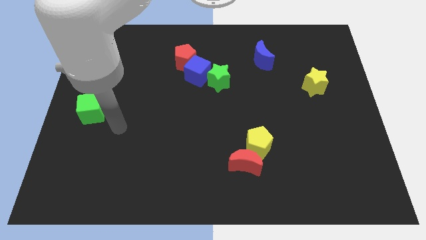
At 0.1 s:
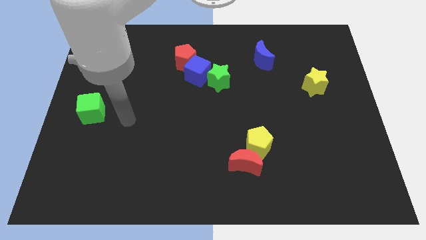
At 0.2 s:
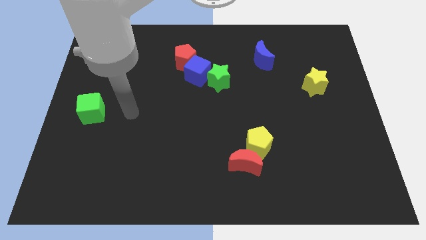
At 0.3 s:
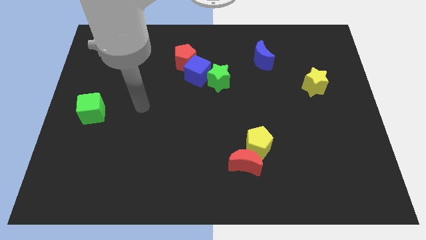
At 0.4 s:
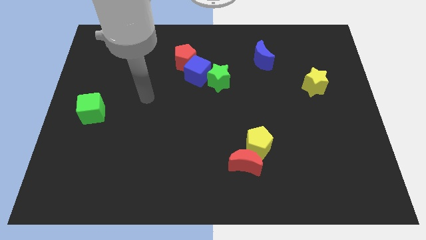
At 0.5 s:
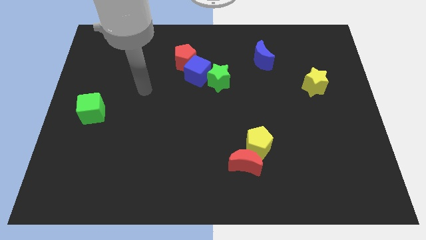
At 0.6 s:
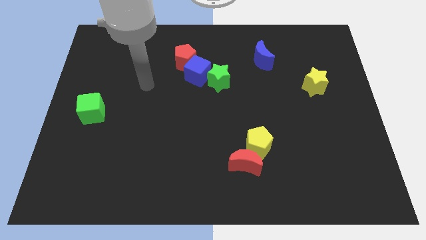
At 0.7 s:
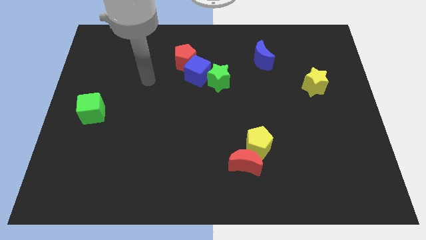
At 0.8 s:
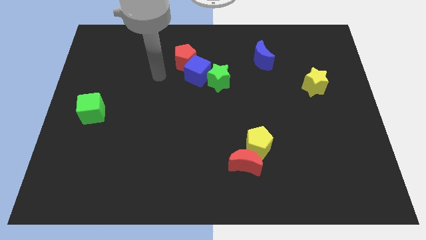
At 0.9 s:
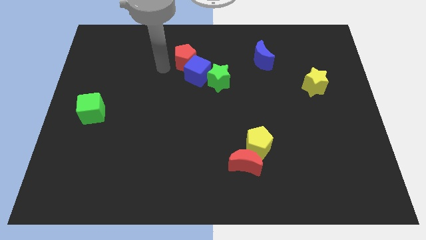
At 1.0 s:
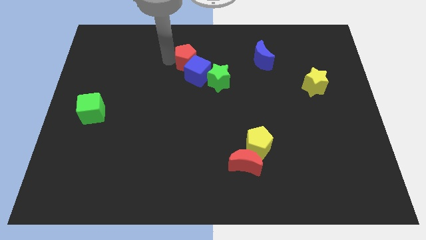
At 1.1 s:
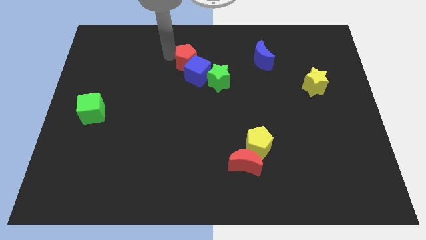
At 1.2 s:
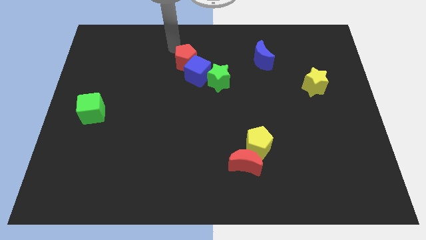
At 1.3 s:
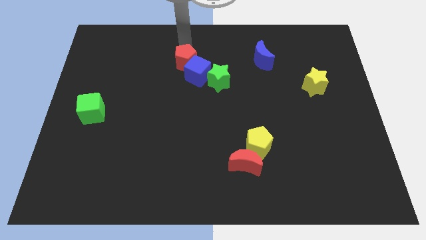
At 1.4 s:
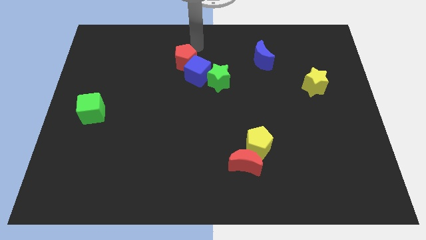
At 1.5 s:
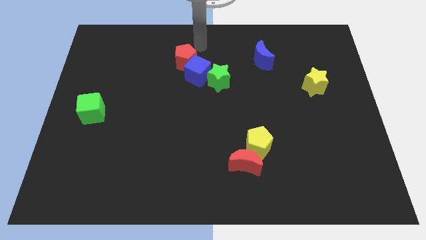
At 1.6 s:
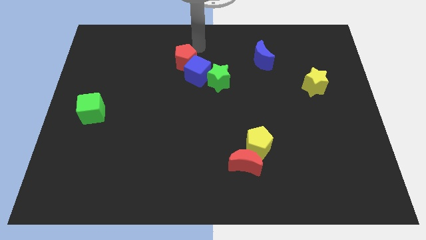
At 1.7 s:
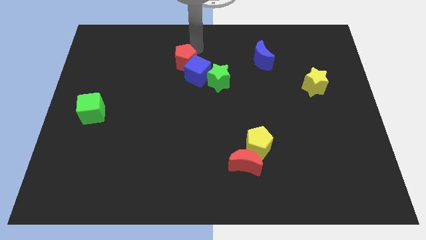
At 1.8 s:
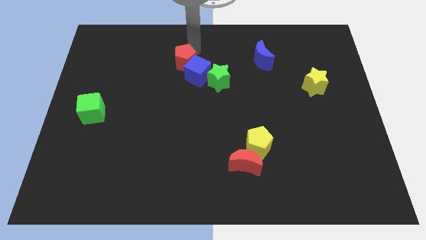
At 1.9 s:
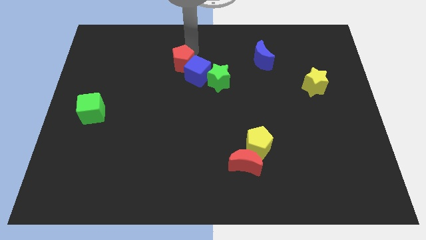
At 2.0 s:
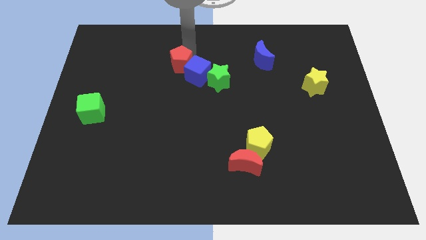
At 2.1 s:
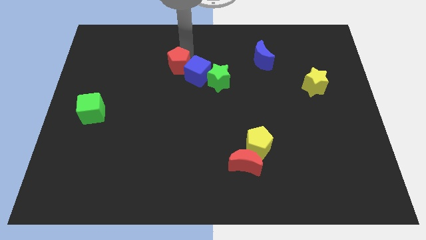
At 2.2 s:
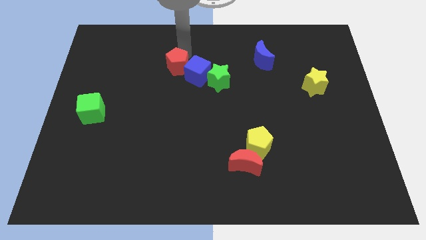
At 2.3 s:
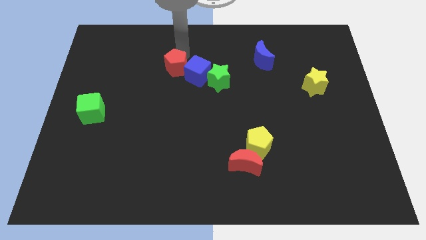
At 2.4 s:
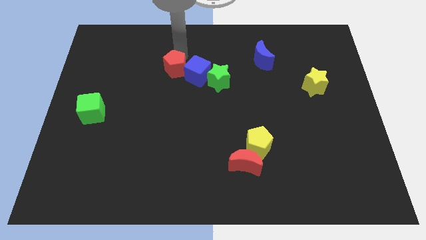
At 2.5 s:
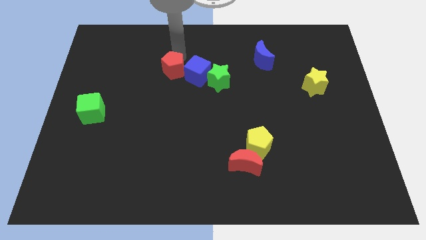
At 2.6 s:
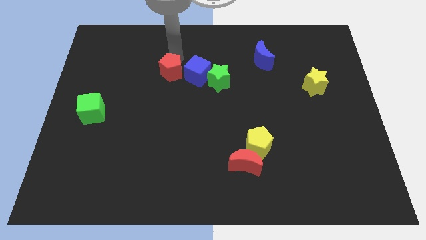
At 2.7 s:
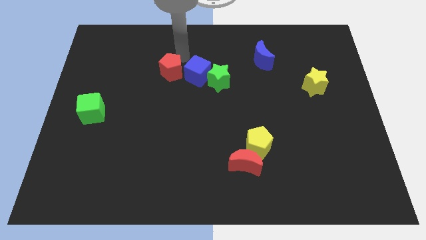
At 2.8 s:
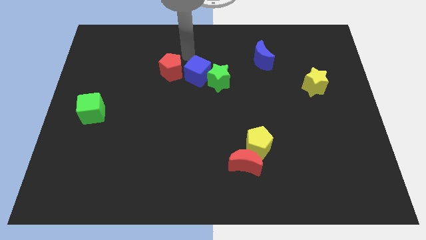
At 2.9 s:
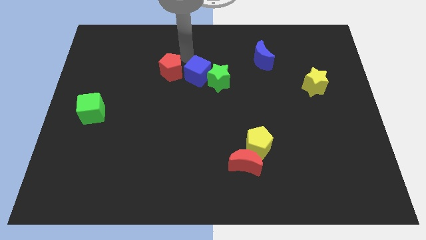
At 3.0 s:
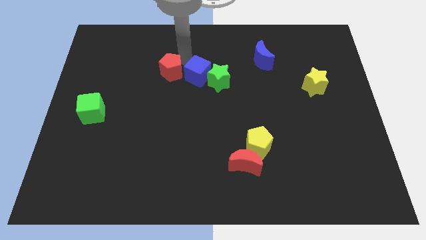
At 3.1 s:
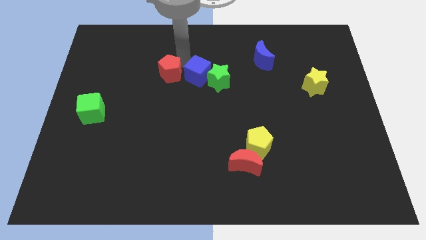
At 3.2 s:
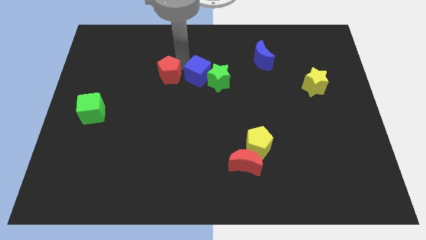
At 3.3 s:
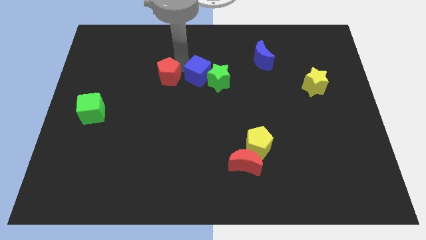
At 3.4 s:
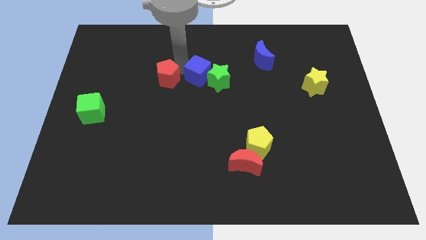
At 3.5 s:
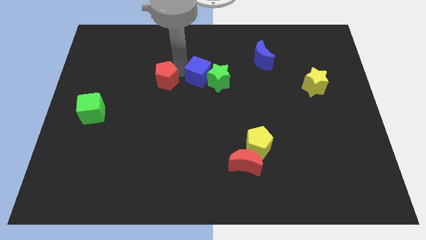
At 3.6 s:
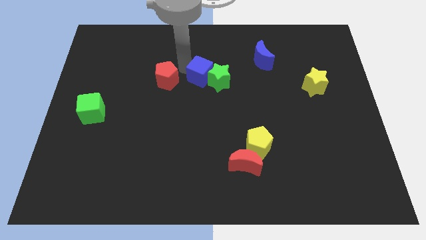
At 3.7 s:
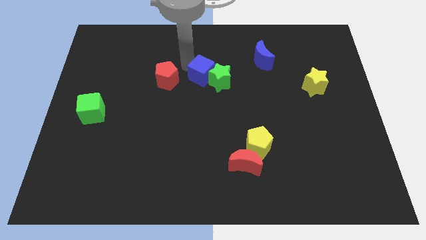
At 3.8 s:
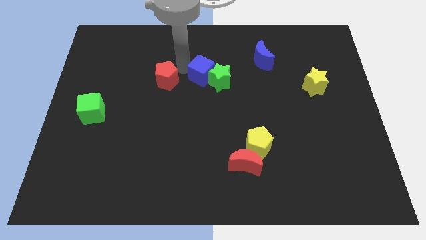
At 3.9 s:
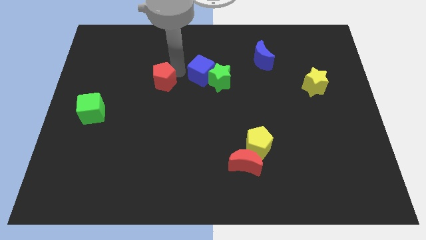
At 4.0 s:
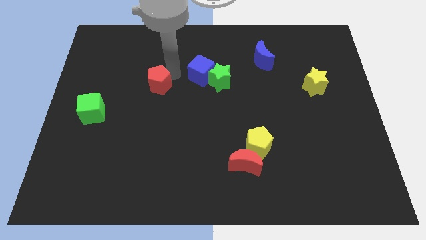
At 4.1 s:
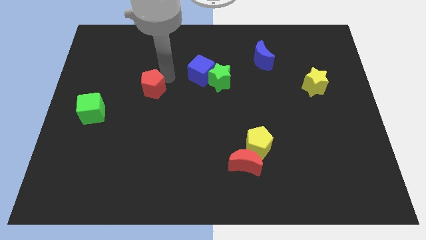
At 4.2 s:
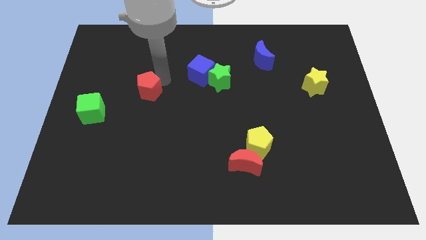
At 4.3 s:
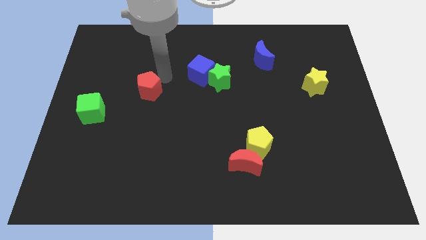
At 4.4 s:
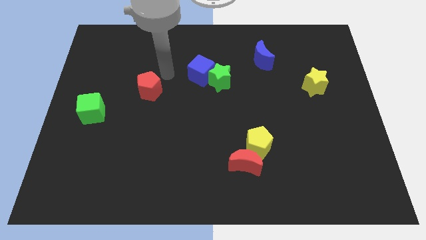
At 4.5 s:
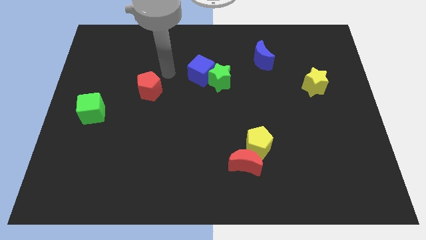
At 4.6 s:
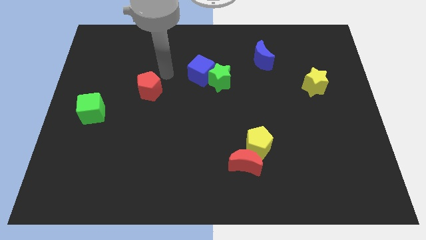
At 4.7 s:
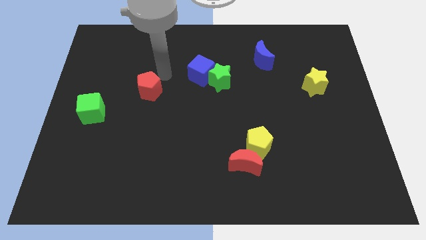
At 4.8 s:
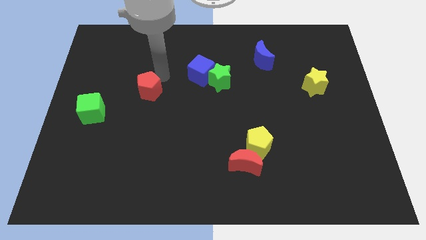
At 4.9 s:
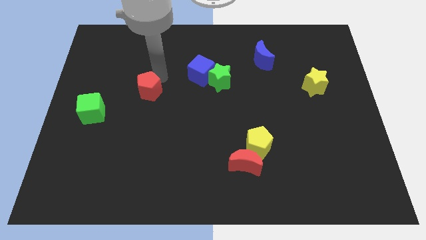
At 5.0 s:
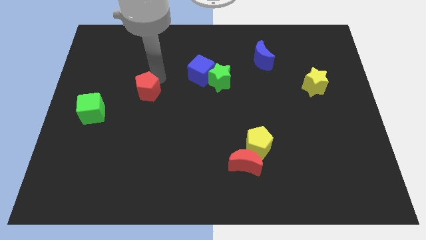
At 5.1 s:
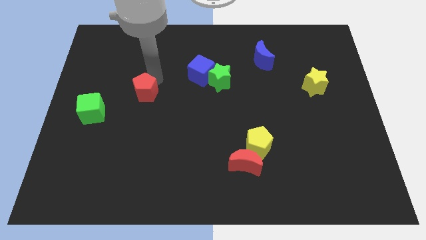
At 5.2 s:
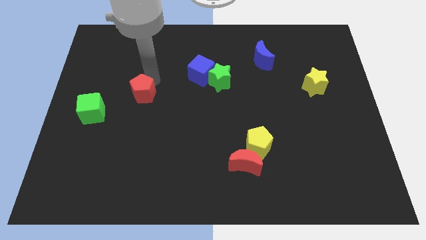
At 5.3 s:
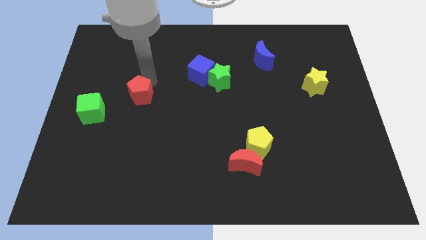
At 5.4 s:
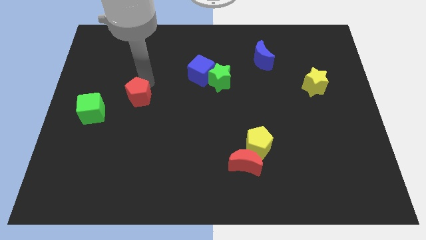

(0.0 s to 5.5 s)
push the red pentagon to the right of the green cube

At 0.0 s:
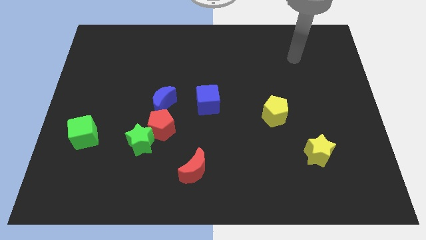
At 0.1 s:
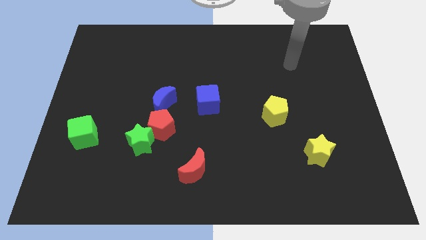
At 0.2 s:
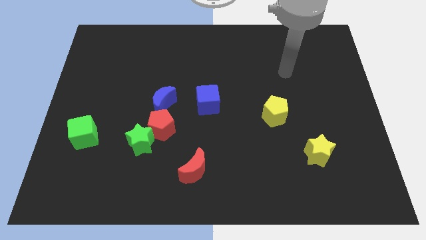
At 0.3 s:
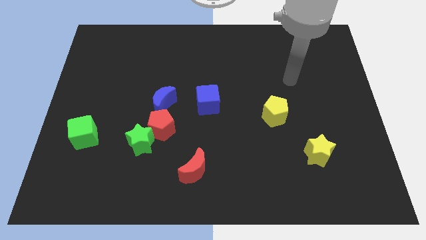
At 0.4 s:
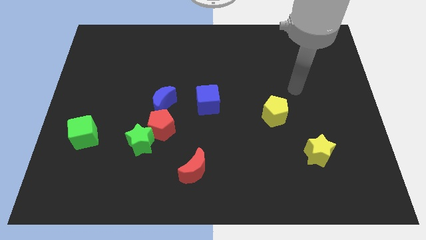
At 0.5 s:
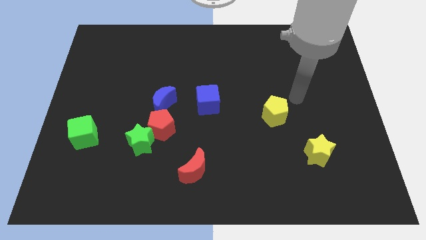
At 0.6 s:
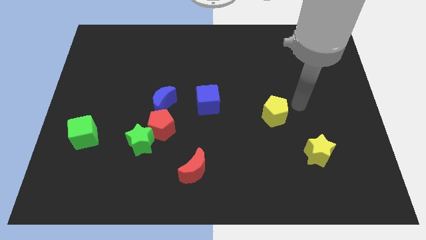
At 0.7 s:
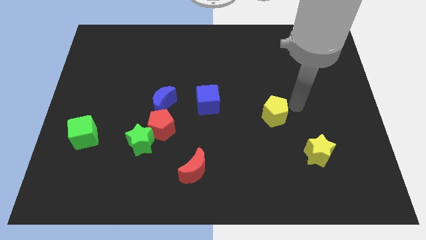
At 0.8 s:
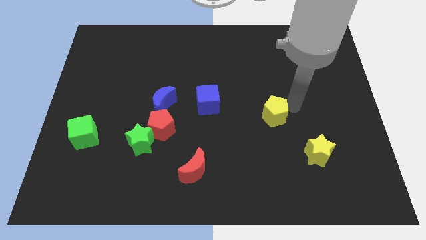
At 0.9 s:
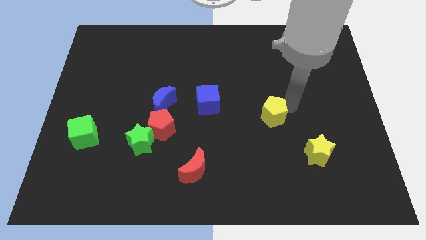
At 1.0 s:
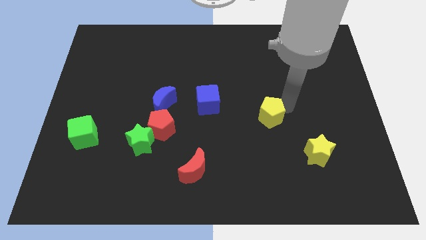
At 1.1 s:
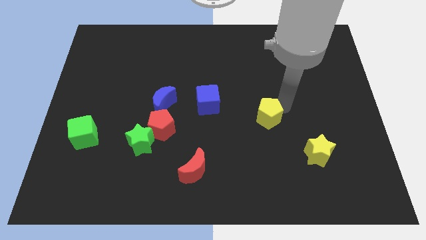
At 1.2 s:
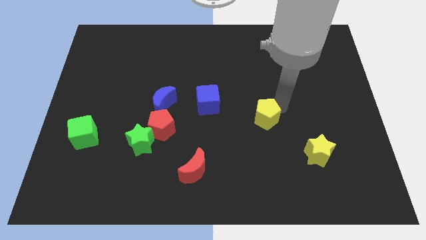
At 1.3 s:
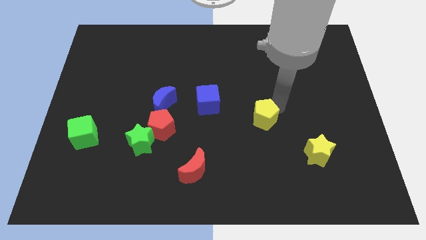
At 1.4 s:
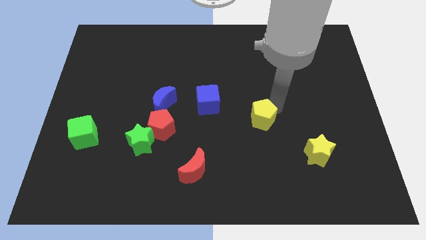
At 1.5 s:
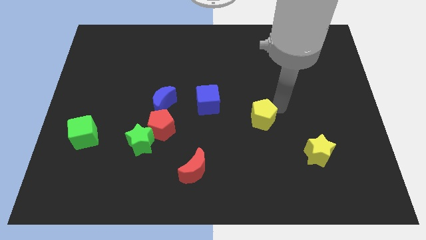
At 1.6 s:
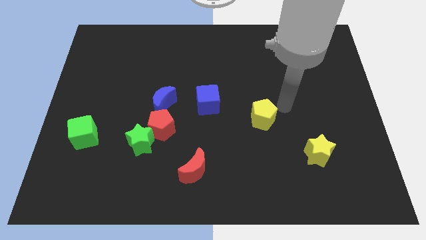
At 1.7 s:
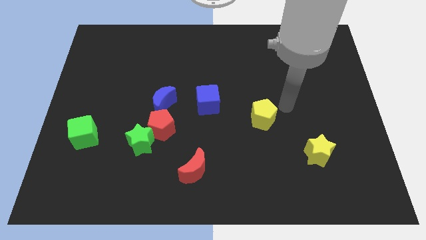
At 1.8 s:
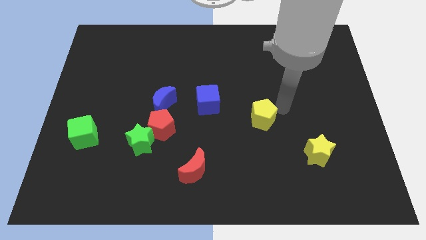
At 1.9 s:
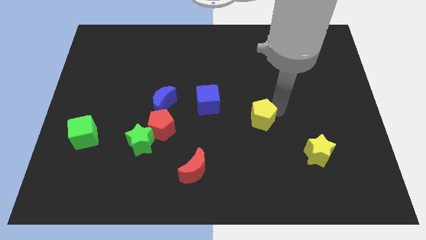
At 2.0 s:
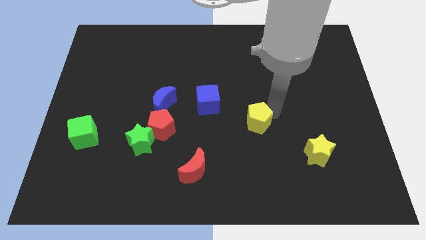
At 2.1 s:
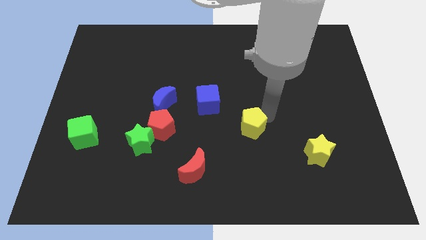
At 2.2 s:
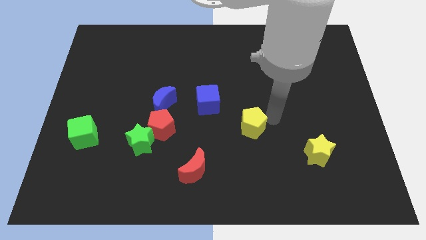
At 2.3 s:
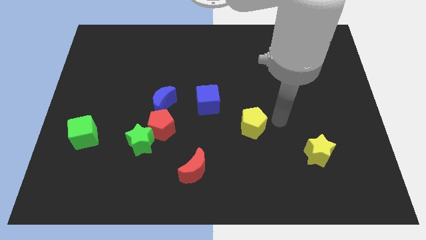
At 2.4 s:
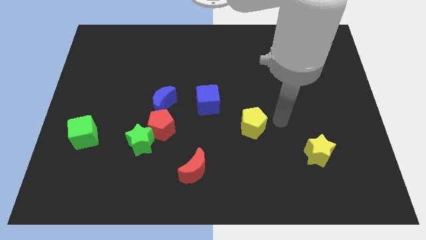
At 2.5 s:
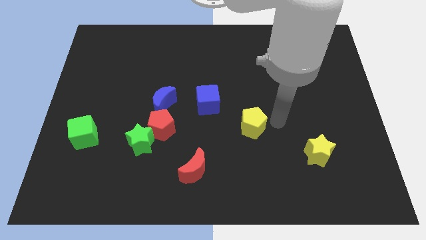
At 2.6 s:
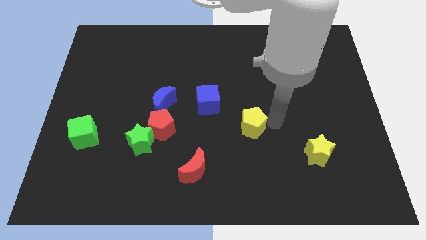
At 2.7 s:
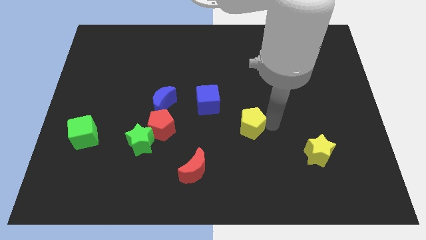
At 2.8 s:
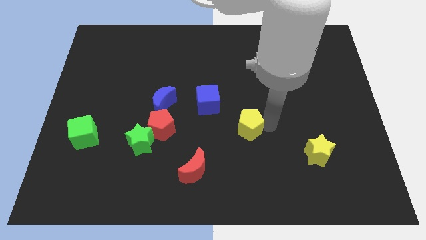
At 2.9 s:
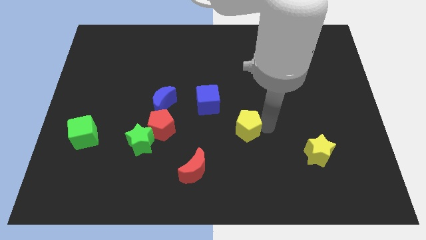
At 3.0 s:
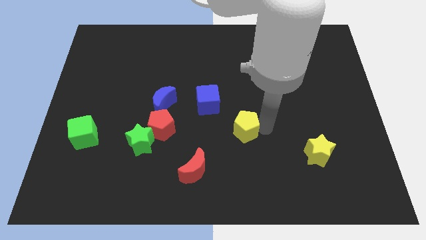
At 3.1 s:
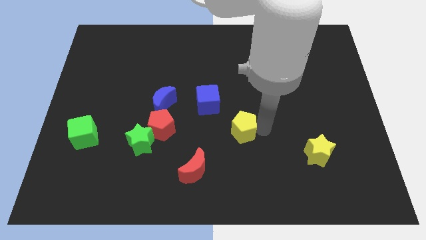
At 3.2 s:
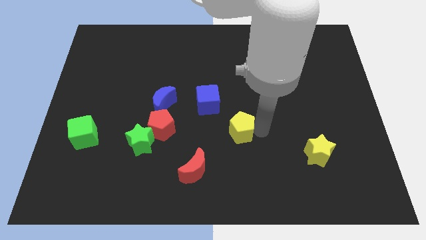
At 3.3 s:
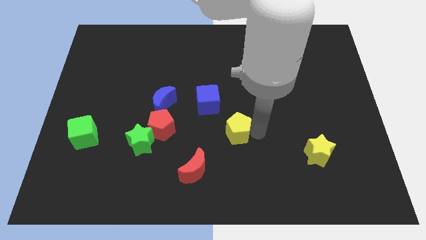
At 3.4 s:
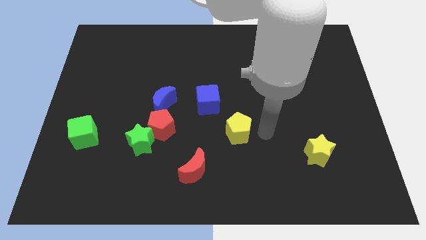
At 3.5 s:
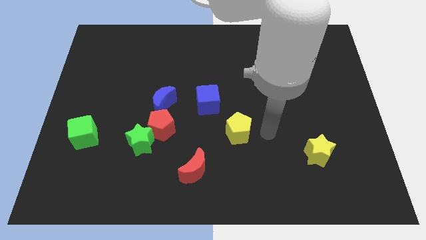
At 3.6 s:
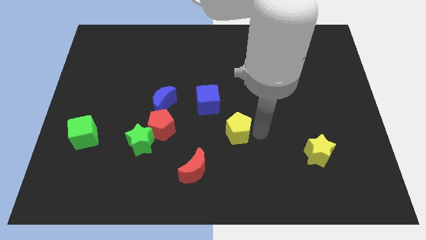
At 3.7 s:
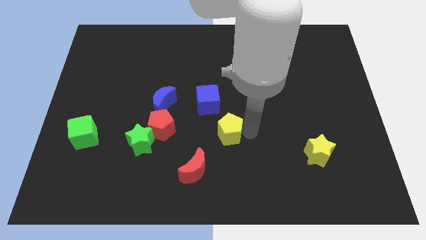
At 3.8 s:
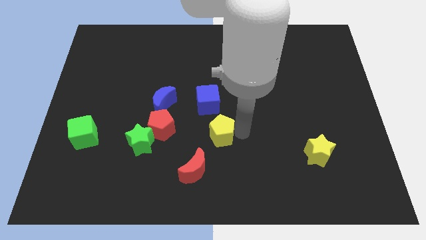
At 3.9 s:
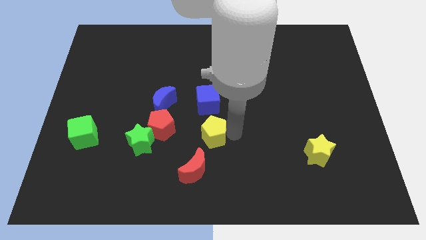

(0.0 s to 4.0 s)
slide the yellow pentagon above the red moon
